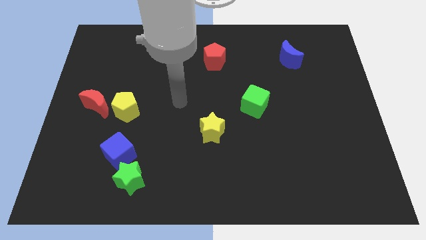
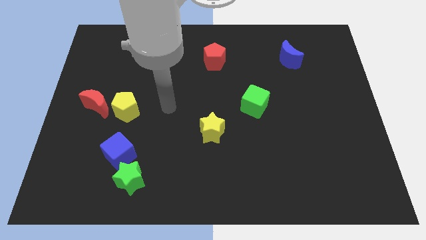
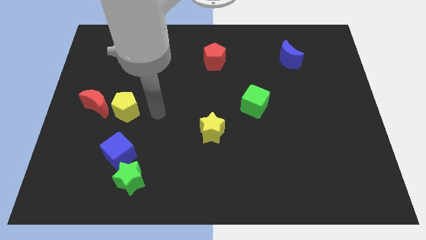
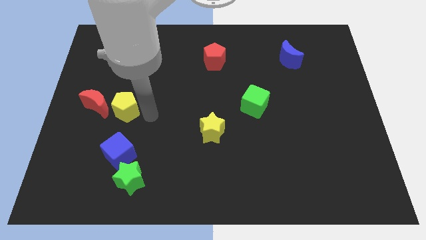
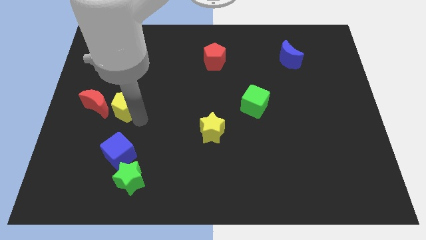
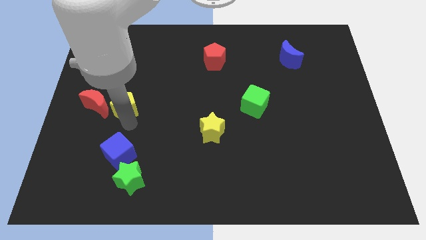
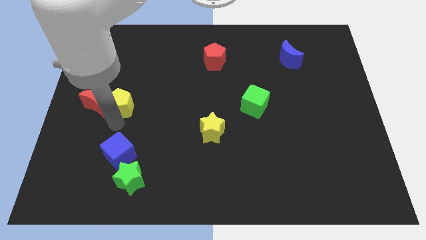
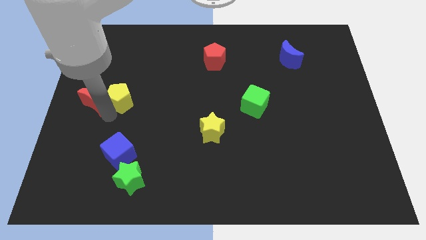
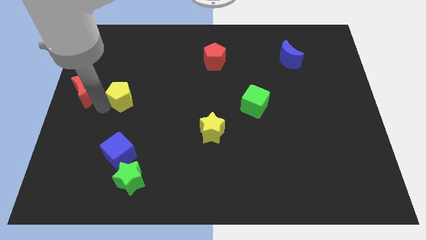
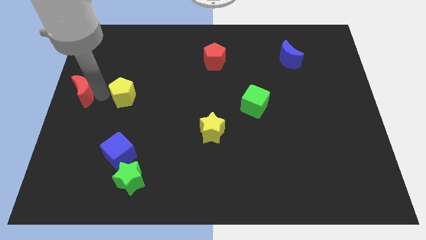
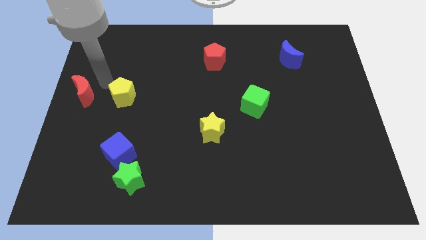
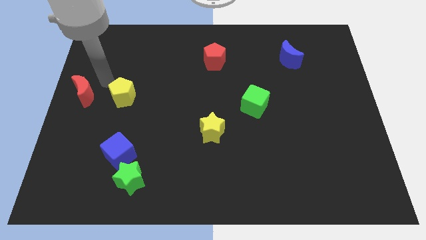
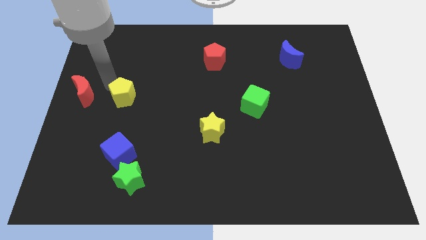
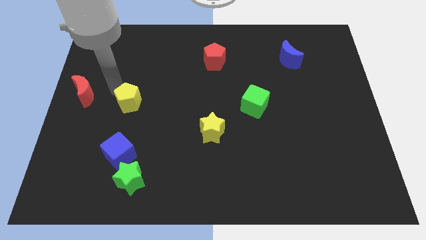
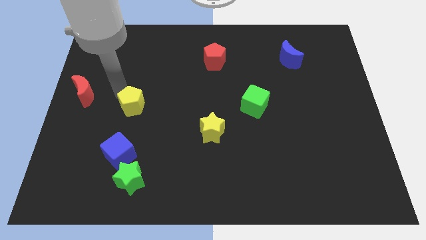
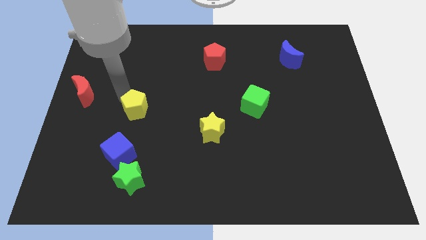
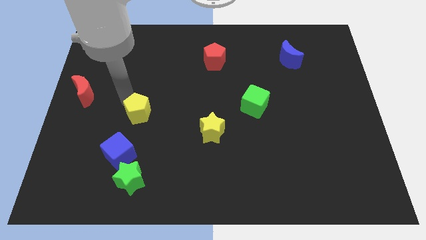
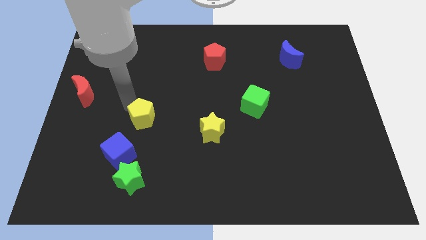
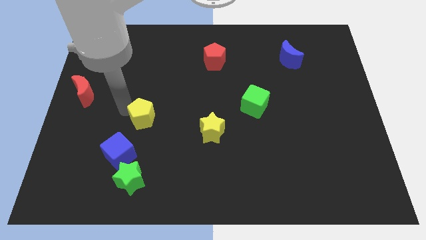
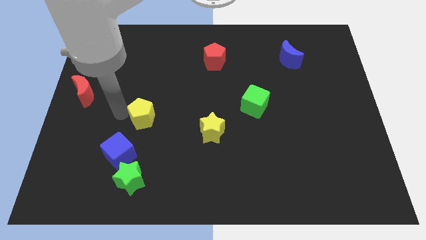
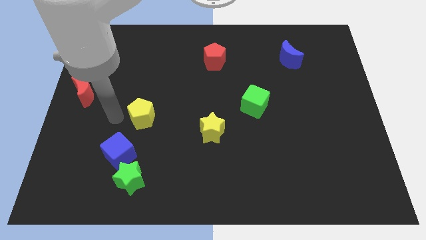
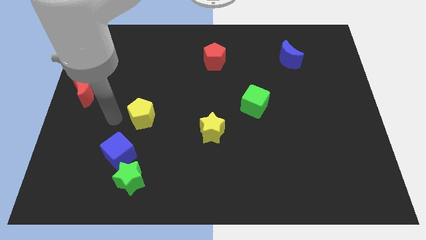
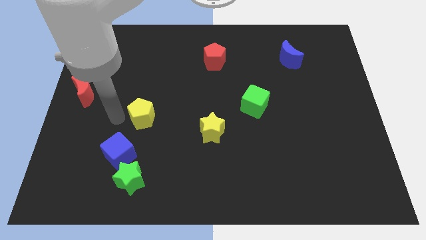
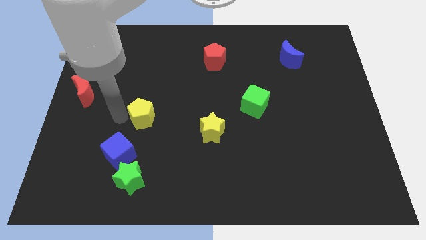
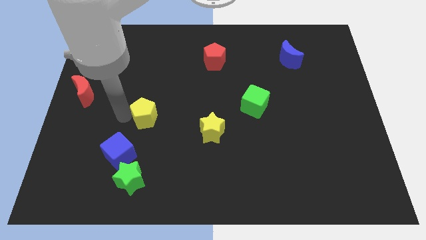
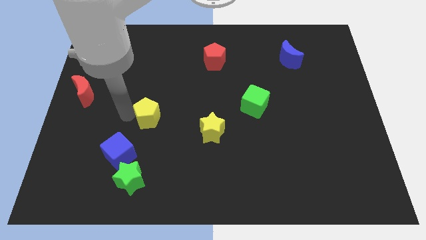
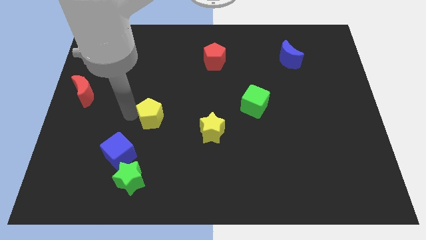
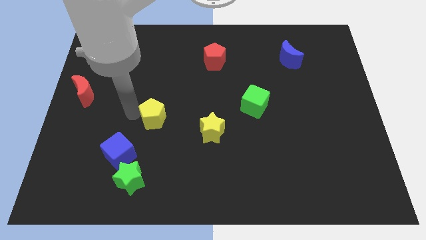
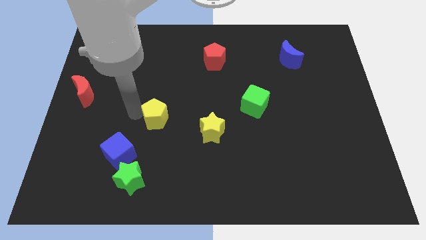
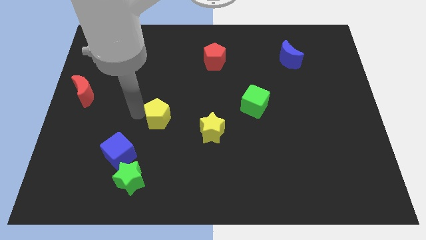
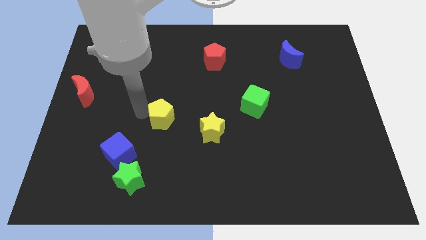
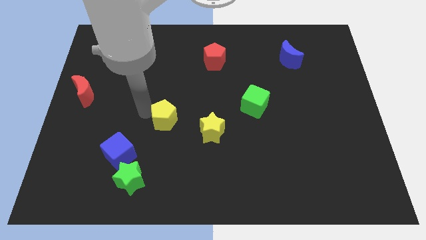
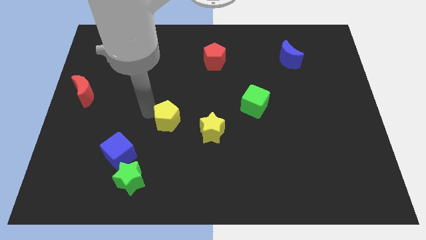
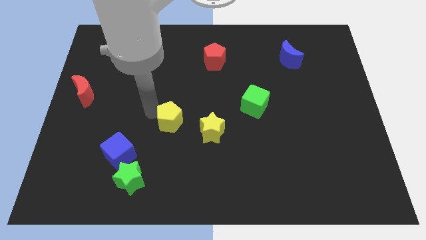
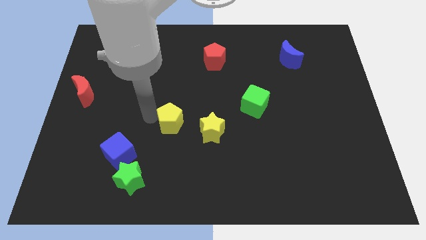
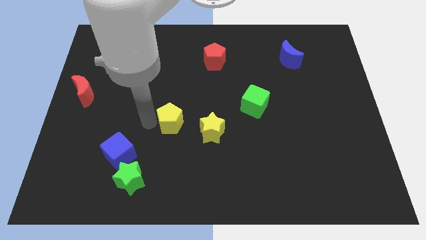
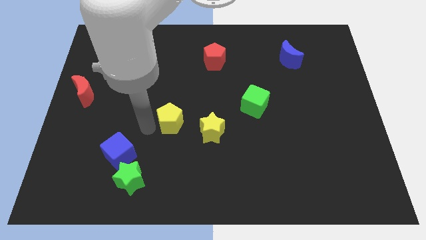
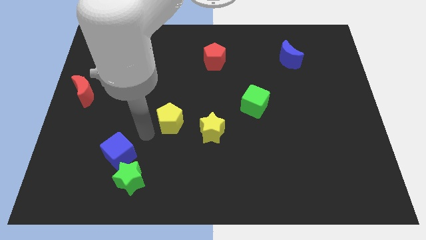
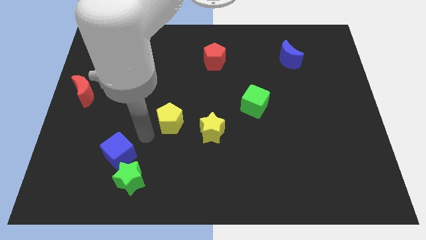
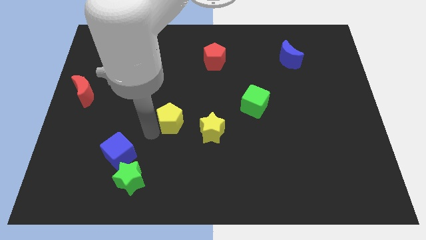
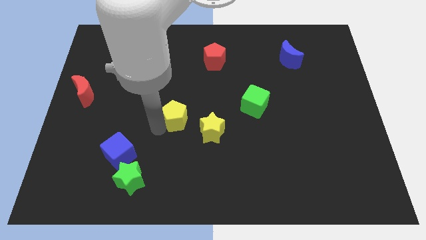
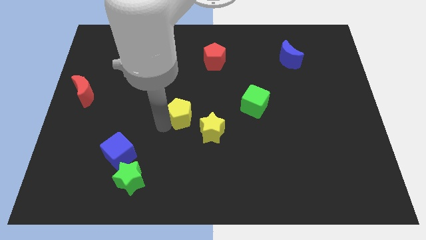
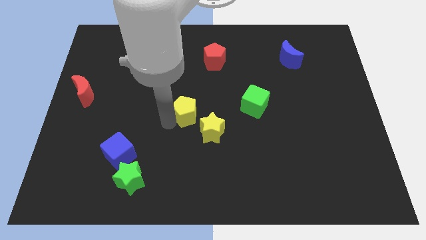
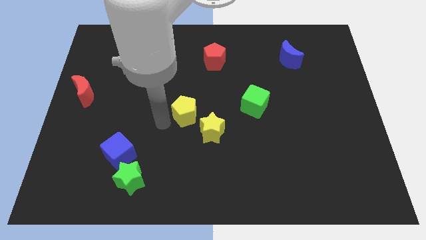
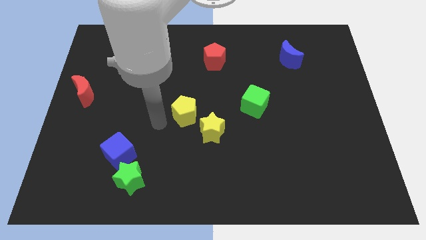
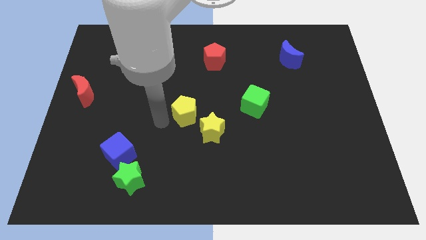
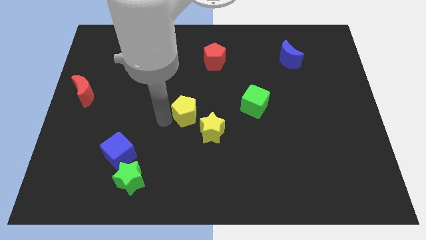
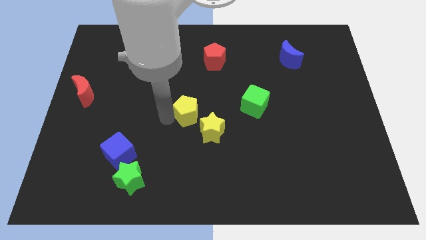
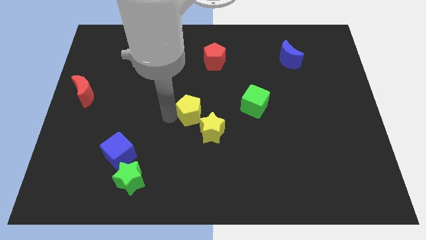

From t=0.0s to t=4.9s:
put the yellow pentagon just left of the green cube

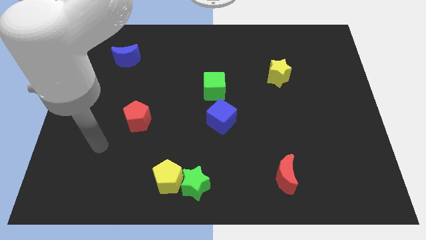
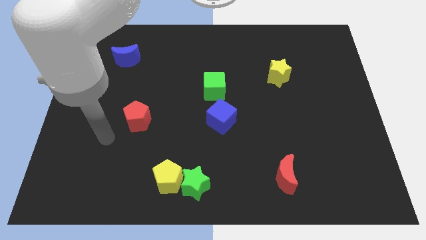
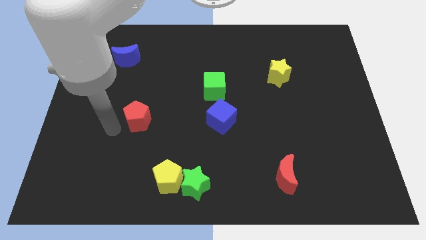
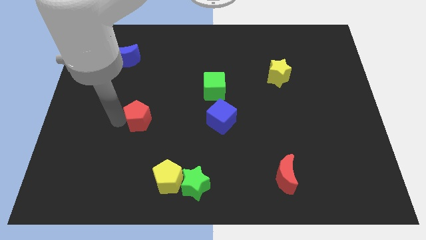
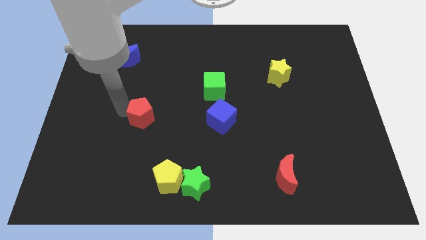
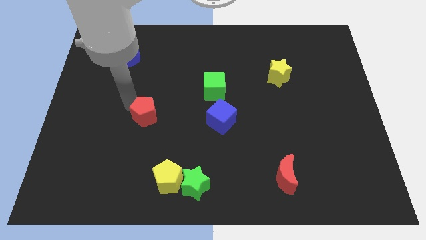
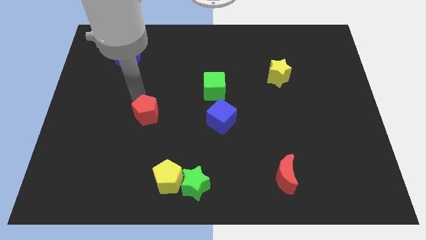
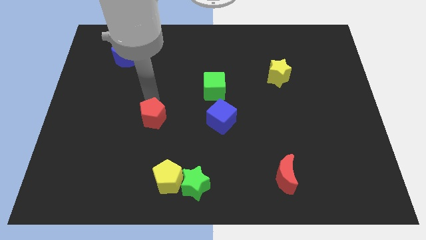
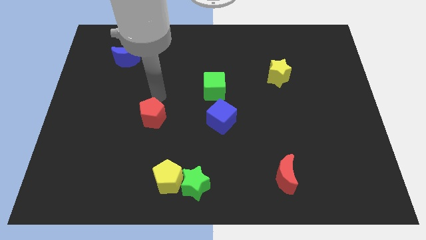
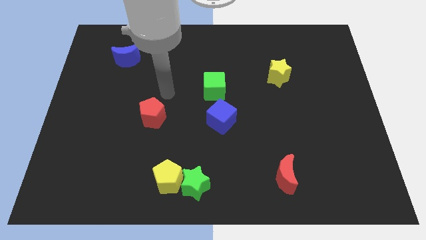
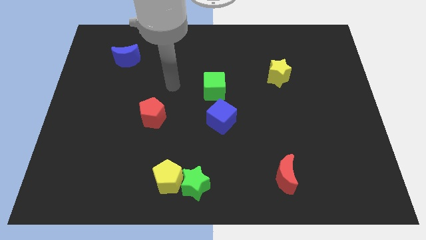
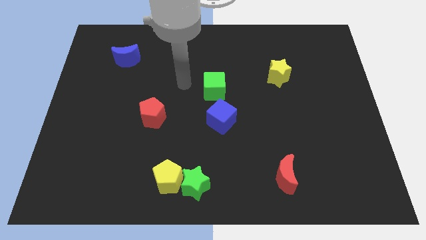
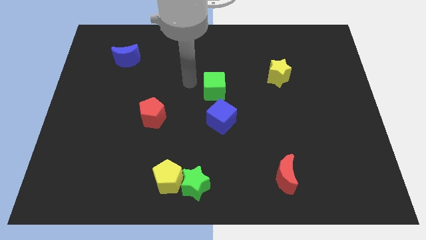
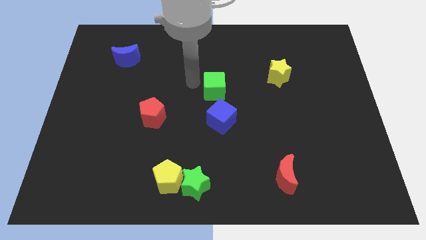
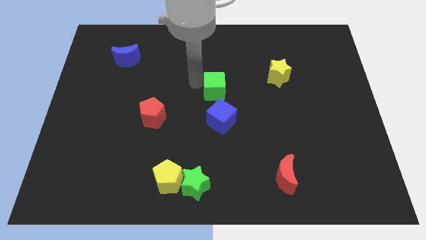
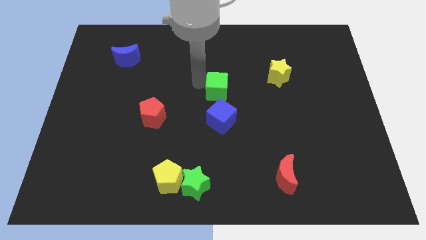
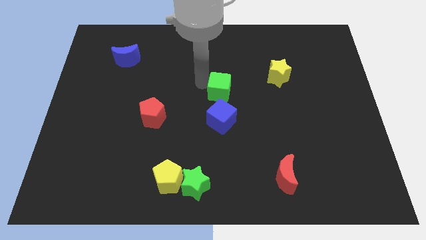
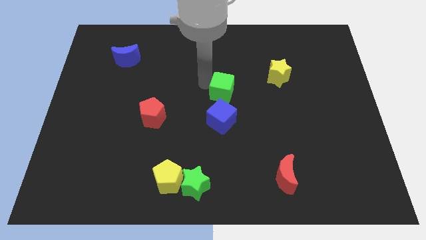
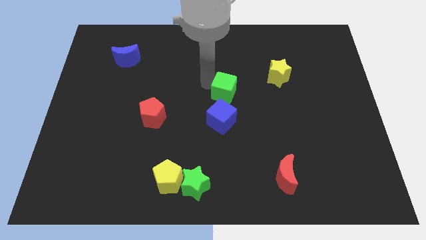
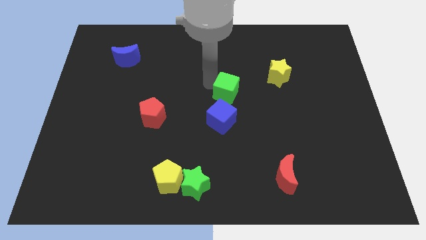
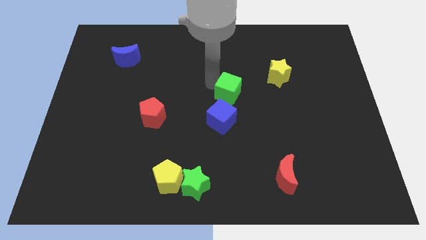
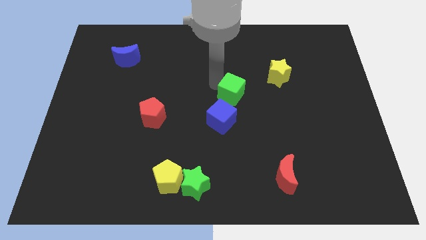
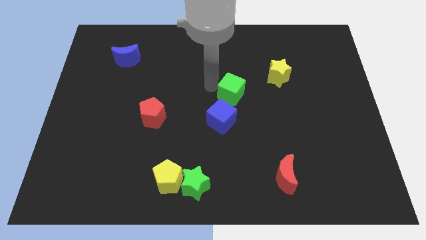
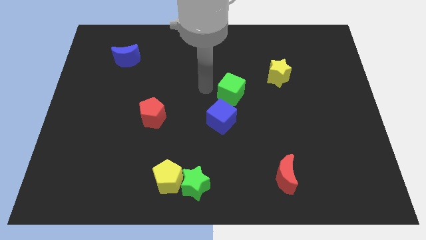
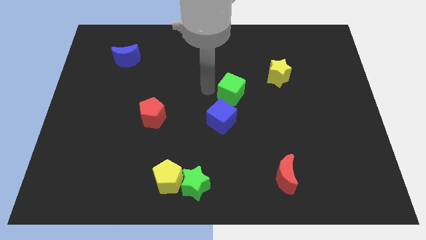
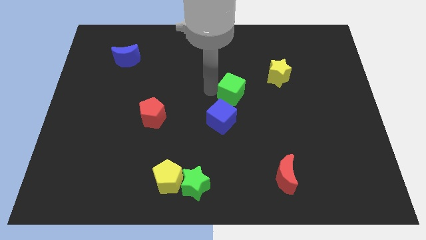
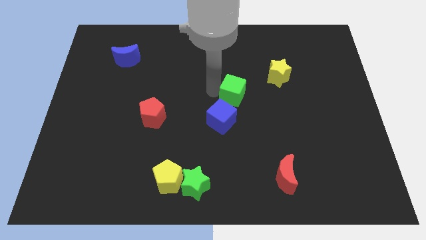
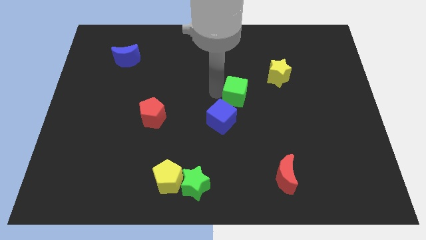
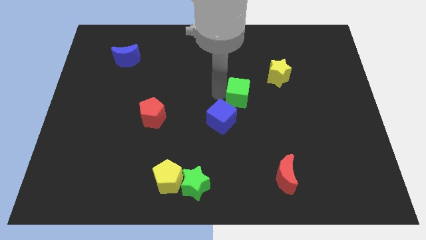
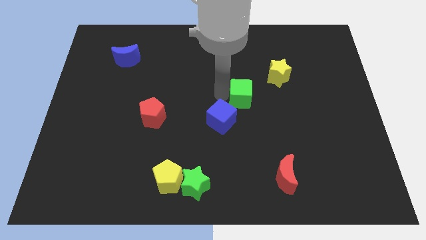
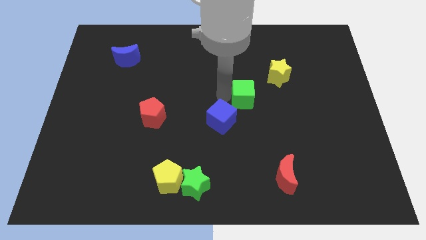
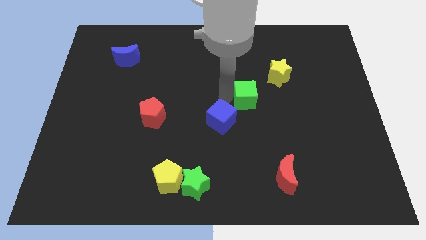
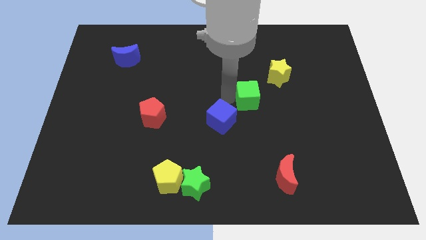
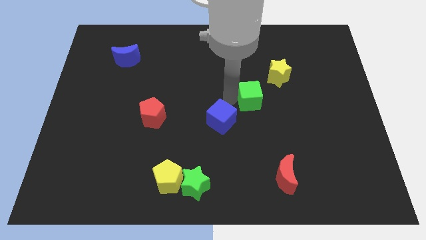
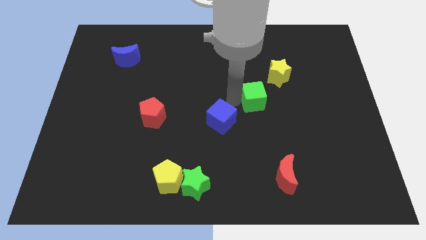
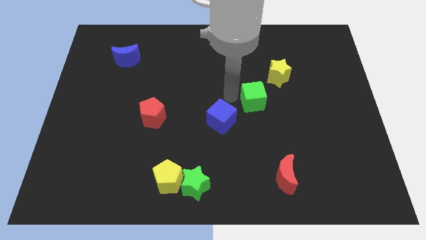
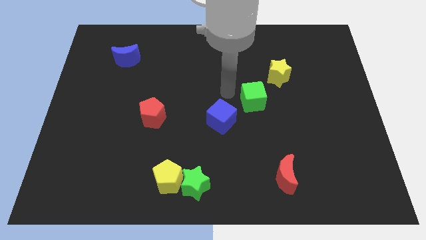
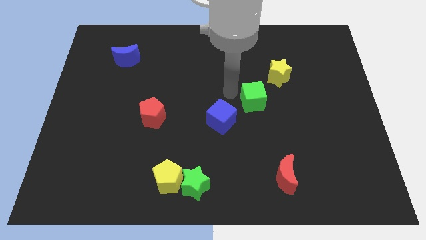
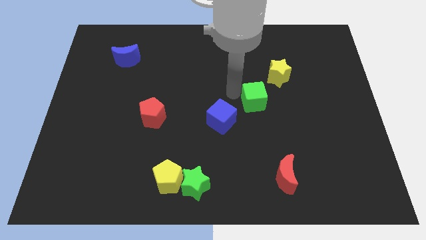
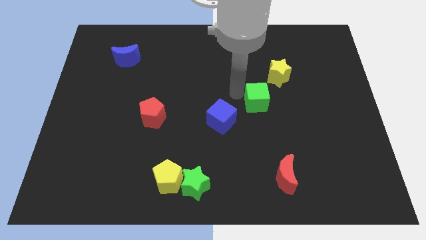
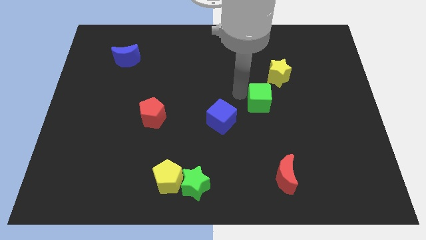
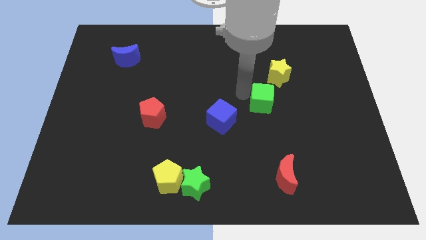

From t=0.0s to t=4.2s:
put the green cube to the bottom side of the yellow star
